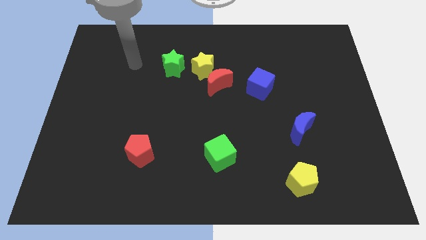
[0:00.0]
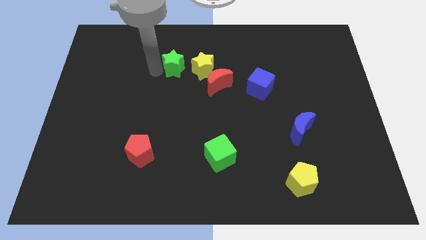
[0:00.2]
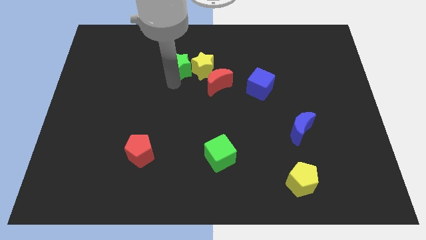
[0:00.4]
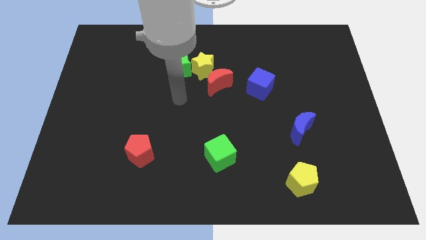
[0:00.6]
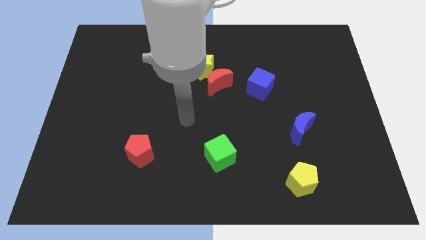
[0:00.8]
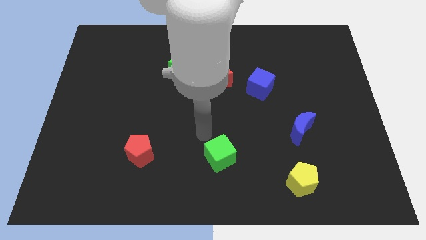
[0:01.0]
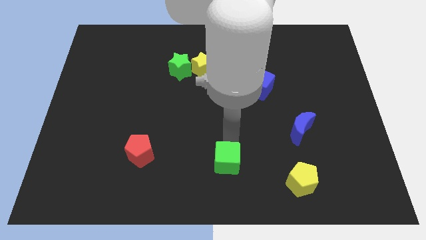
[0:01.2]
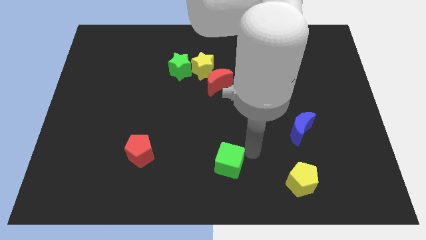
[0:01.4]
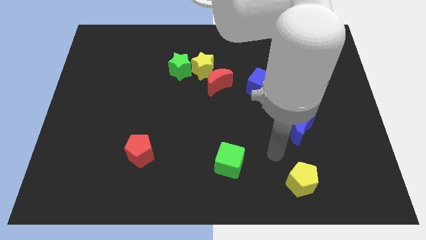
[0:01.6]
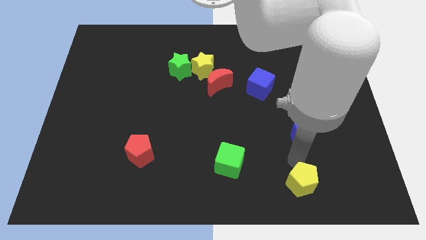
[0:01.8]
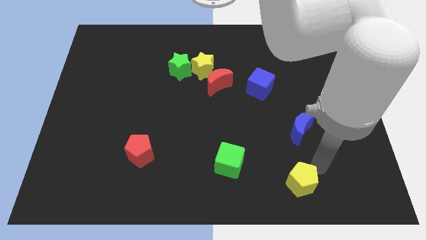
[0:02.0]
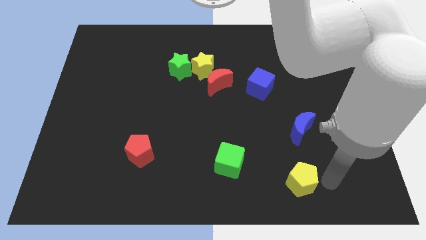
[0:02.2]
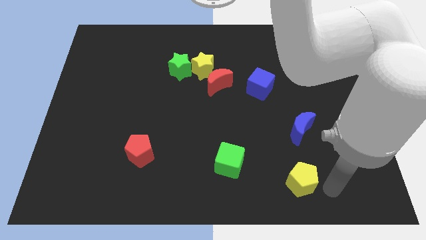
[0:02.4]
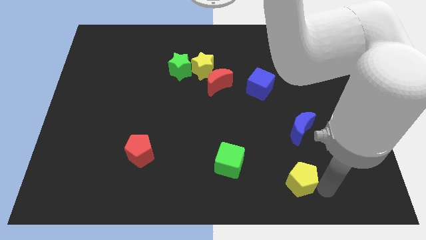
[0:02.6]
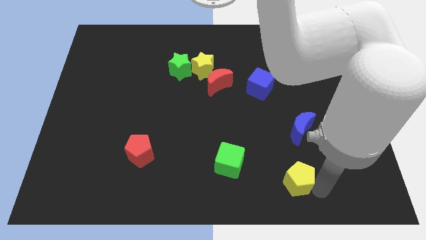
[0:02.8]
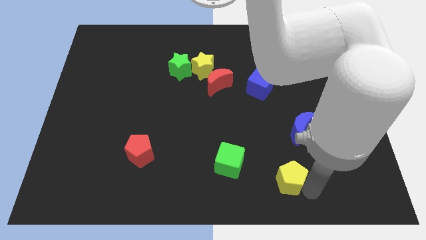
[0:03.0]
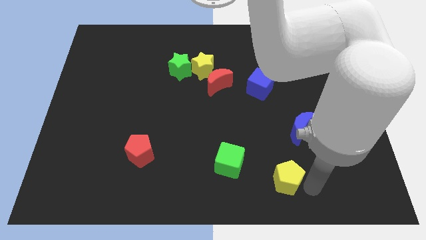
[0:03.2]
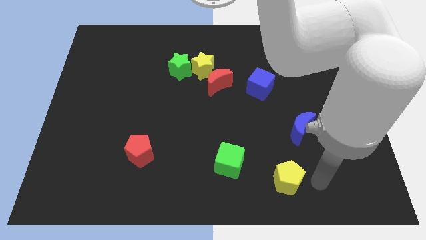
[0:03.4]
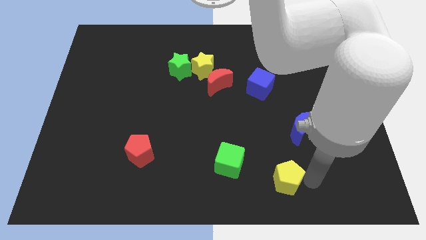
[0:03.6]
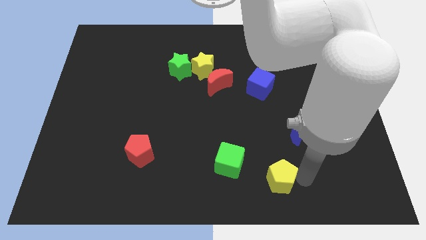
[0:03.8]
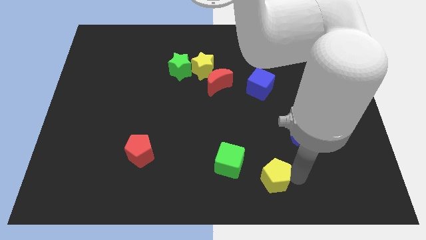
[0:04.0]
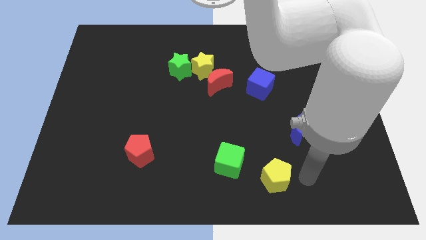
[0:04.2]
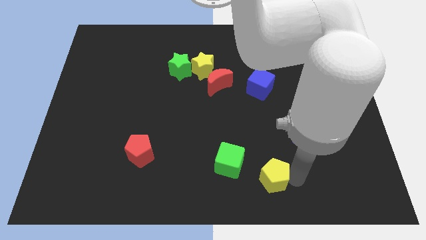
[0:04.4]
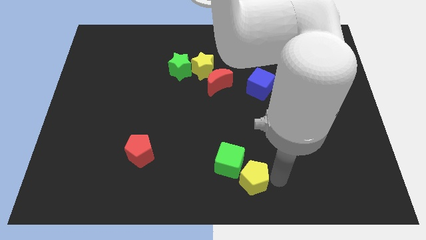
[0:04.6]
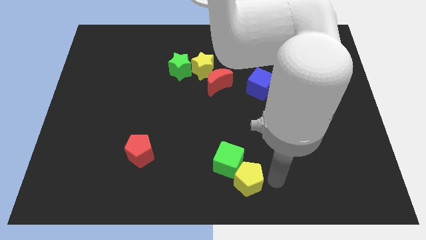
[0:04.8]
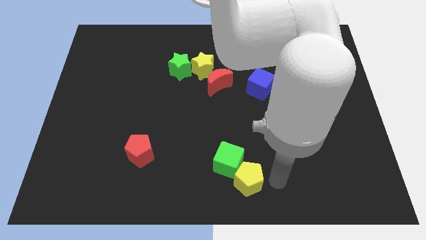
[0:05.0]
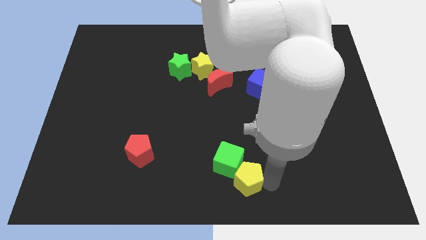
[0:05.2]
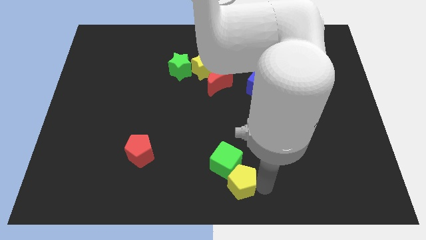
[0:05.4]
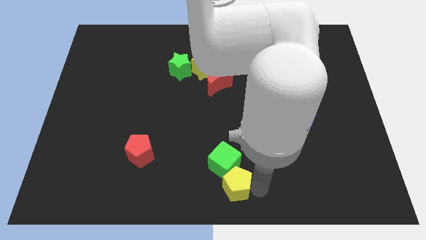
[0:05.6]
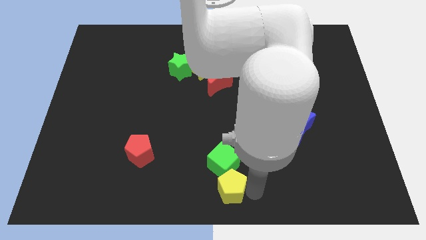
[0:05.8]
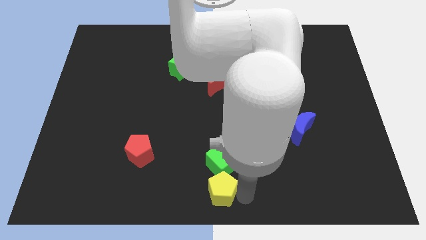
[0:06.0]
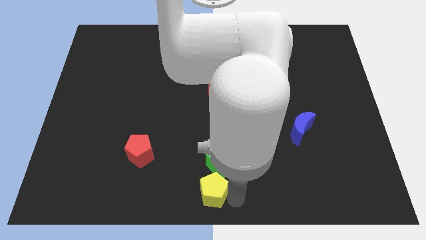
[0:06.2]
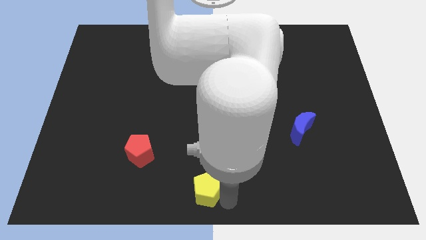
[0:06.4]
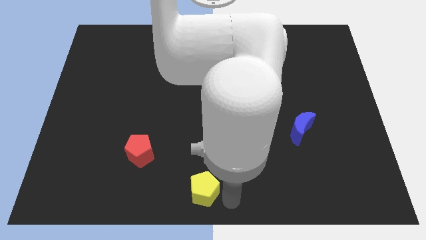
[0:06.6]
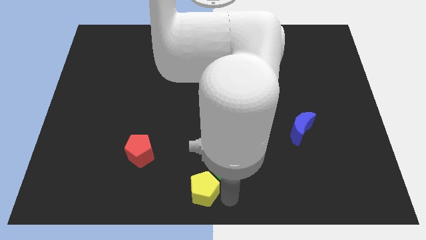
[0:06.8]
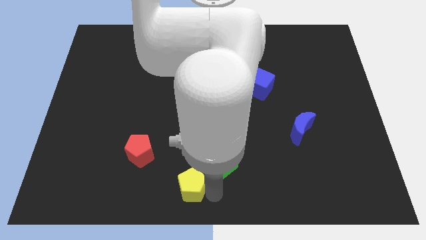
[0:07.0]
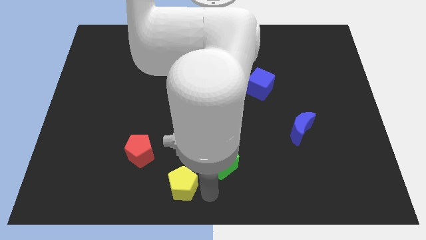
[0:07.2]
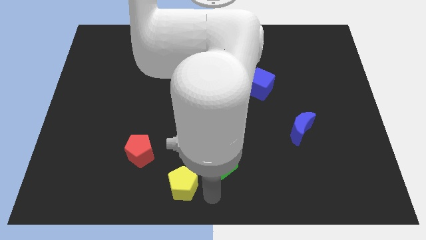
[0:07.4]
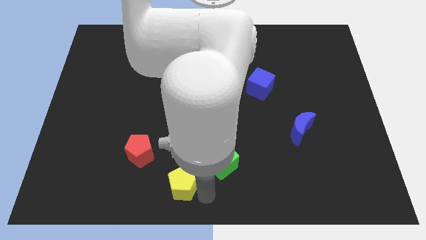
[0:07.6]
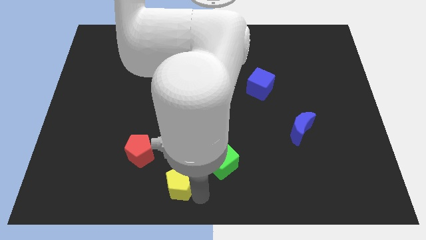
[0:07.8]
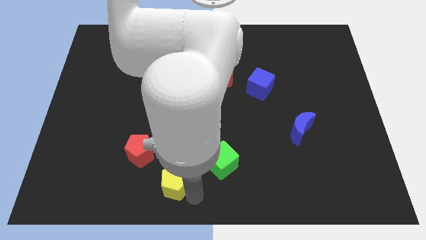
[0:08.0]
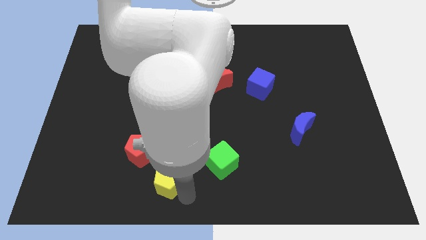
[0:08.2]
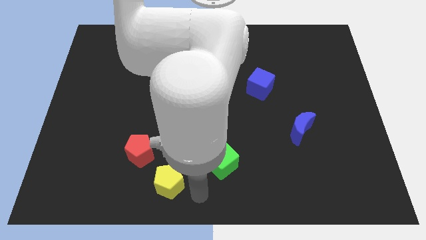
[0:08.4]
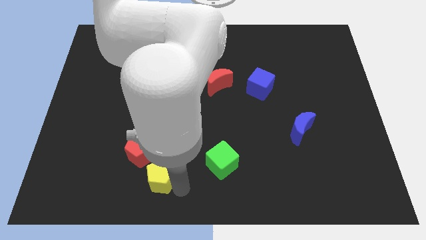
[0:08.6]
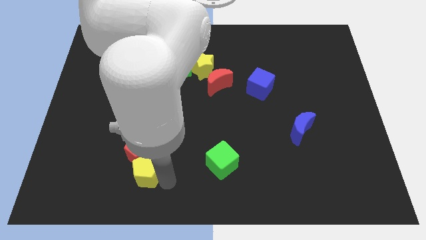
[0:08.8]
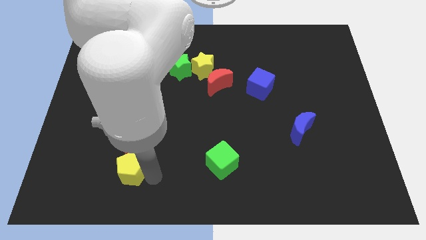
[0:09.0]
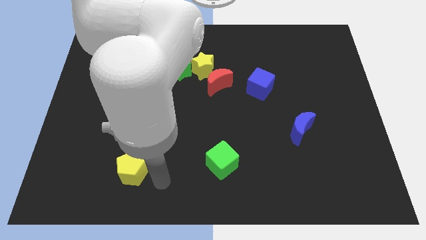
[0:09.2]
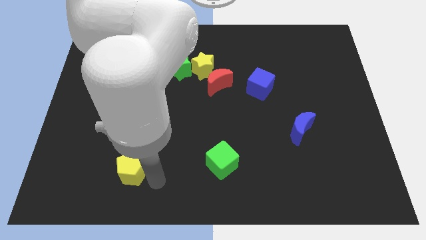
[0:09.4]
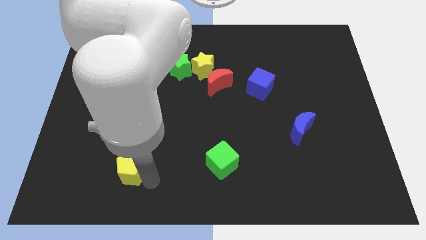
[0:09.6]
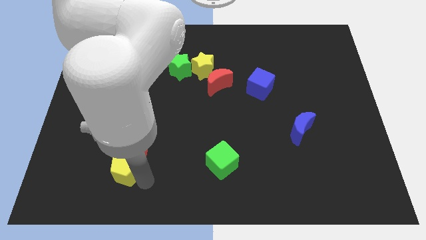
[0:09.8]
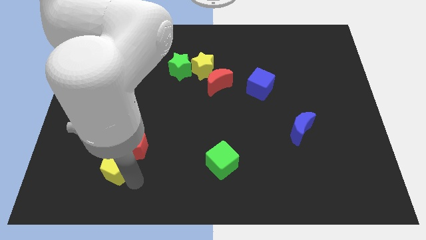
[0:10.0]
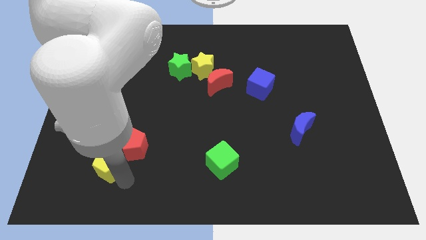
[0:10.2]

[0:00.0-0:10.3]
push the yellow pentagon to the left side of the red pentagon

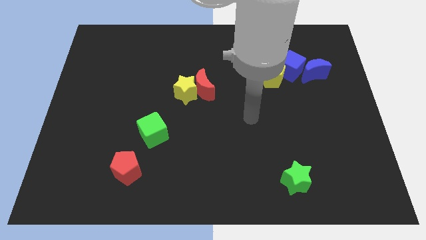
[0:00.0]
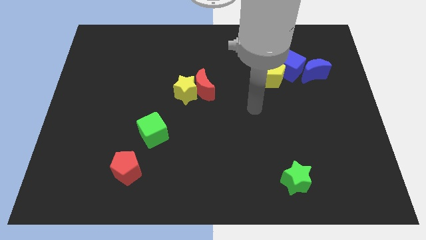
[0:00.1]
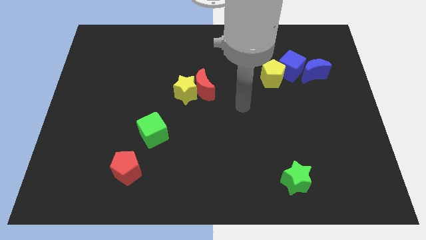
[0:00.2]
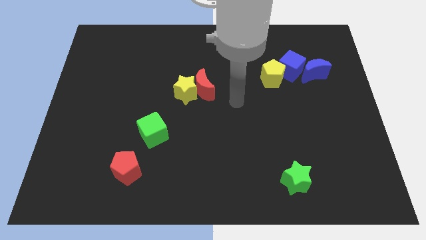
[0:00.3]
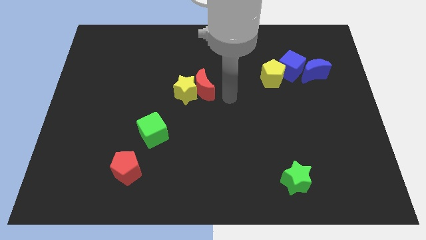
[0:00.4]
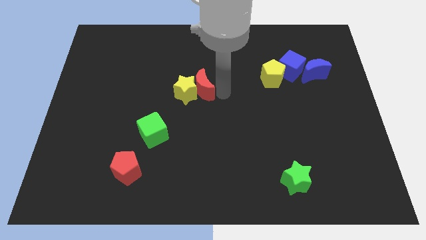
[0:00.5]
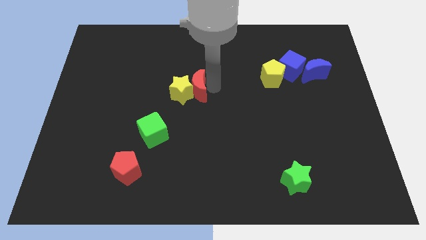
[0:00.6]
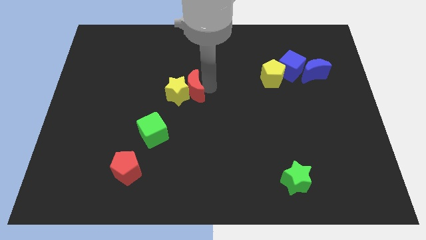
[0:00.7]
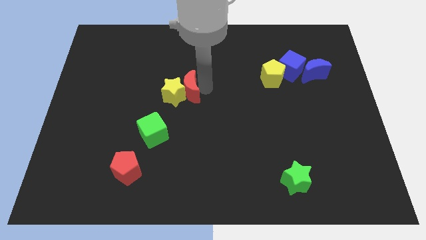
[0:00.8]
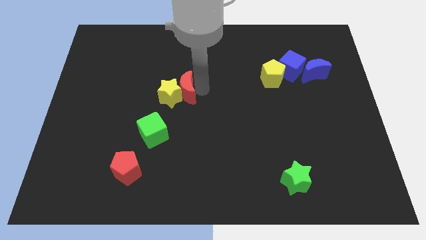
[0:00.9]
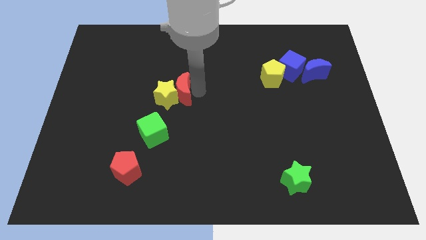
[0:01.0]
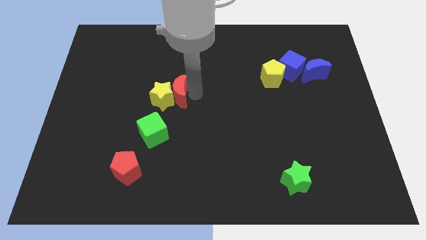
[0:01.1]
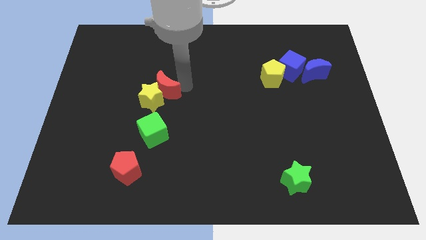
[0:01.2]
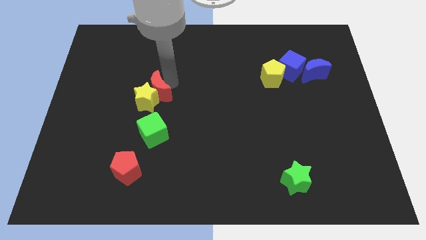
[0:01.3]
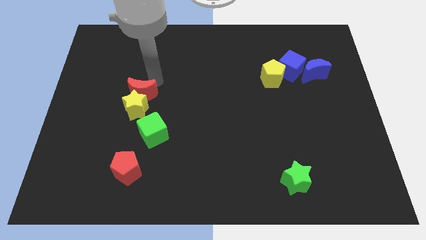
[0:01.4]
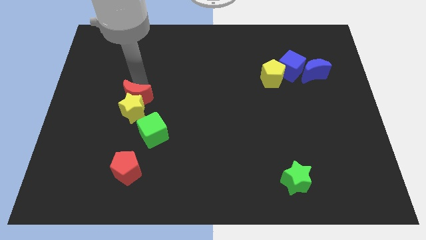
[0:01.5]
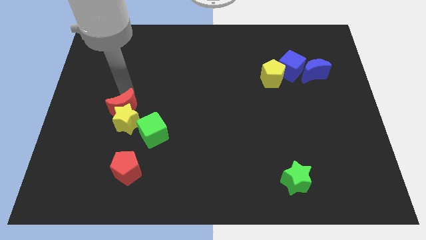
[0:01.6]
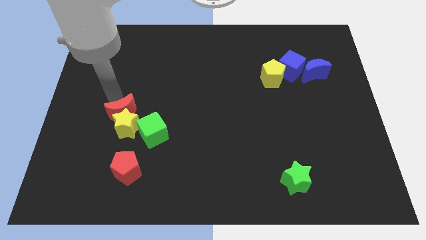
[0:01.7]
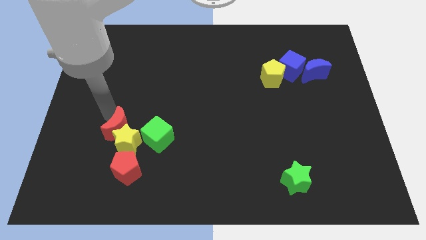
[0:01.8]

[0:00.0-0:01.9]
move the yellow star to the top left of the red pentagon
